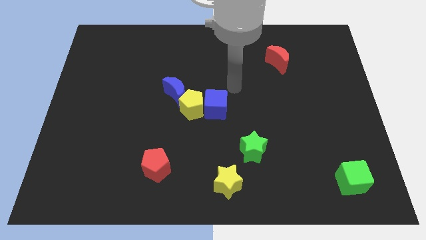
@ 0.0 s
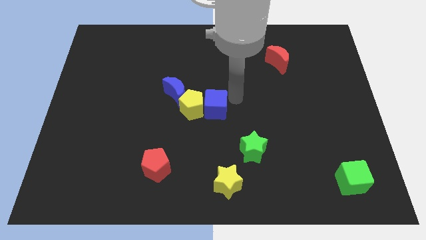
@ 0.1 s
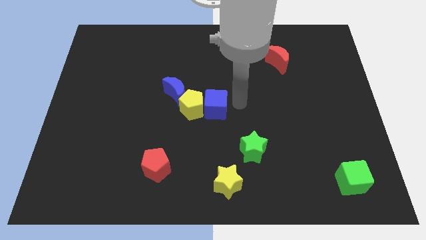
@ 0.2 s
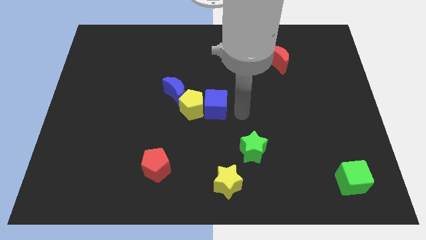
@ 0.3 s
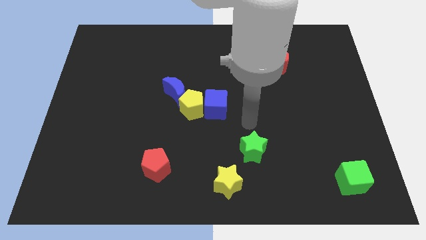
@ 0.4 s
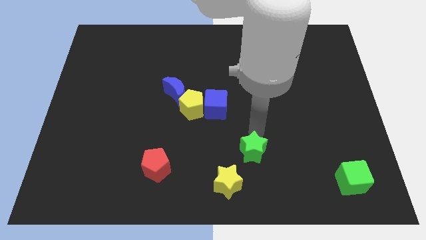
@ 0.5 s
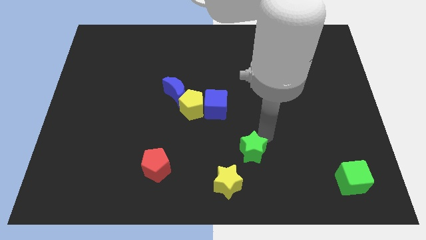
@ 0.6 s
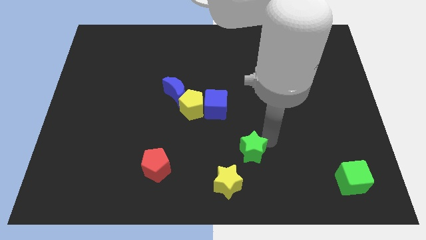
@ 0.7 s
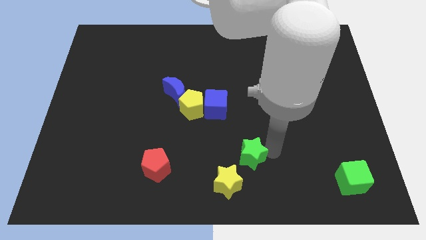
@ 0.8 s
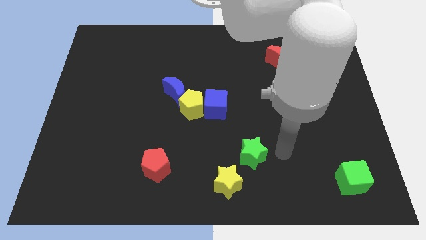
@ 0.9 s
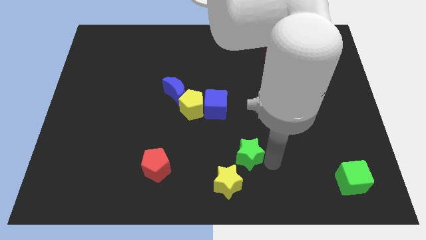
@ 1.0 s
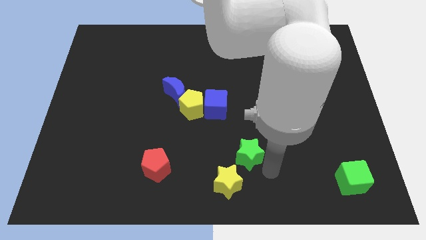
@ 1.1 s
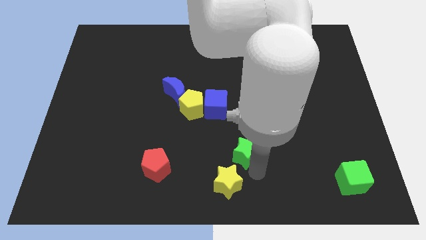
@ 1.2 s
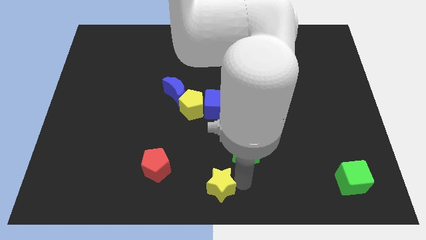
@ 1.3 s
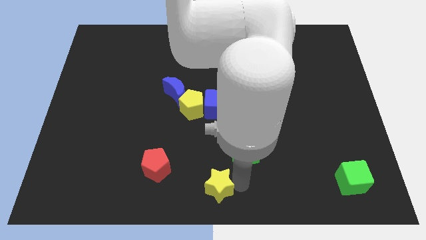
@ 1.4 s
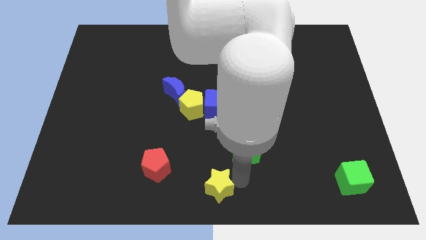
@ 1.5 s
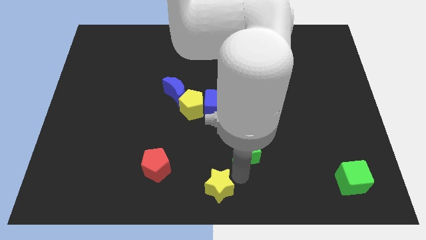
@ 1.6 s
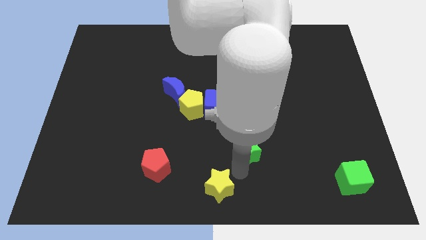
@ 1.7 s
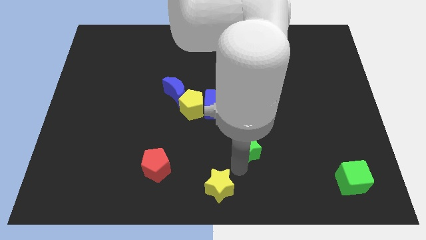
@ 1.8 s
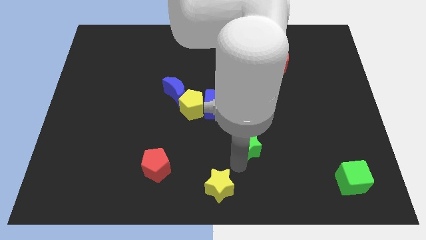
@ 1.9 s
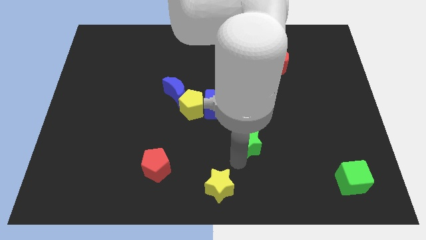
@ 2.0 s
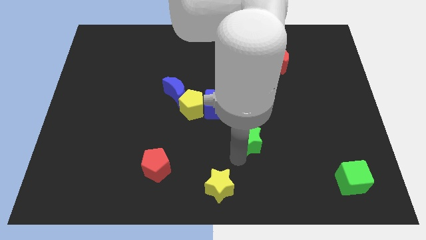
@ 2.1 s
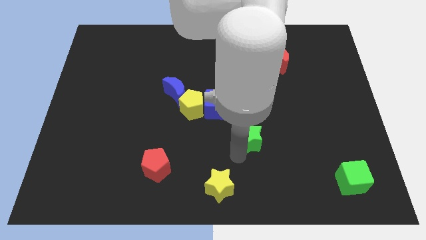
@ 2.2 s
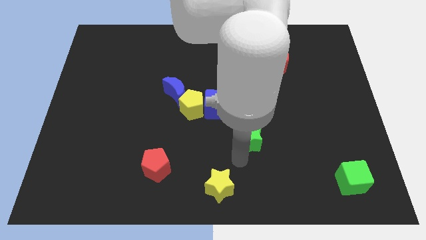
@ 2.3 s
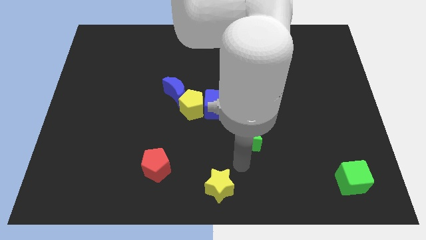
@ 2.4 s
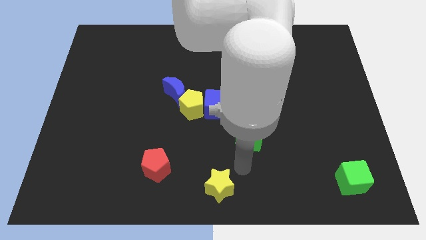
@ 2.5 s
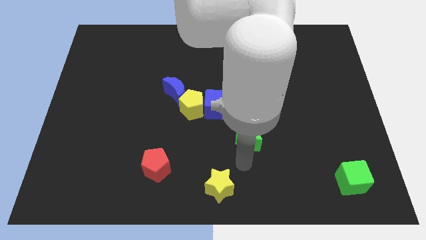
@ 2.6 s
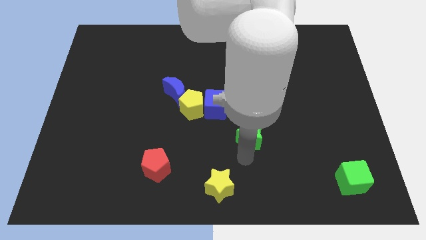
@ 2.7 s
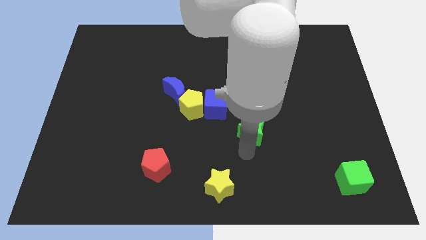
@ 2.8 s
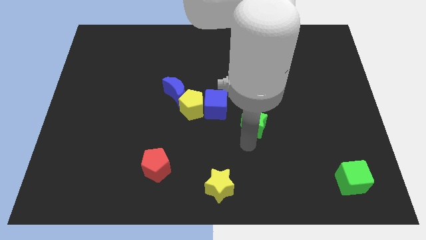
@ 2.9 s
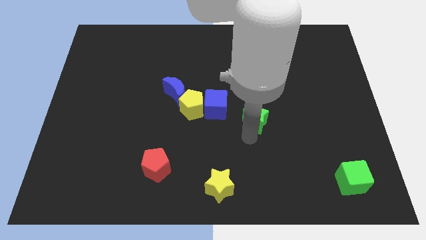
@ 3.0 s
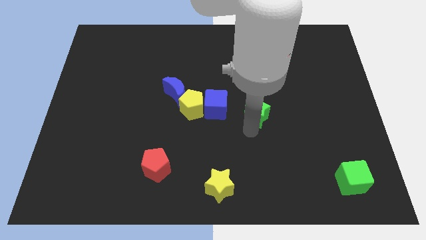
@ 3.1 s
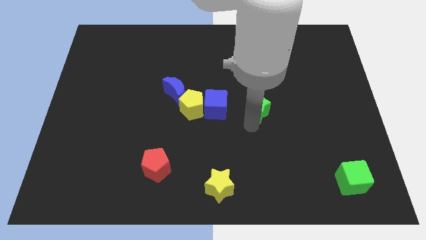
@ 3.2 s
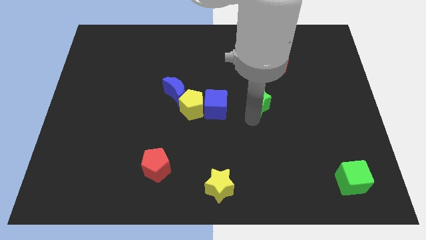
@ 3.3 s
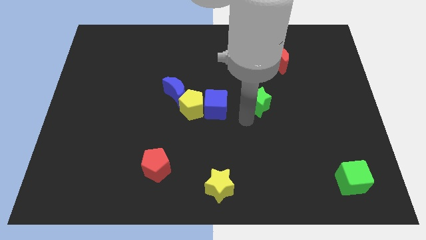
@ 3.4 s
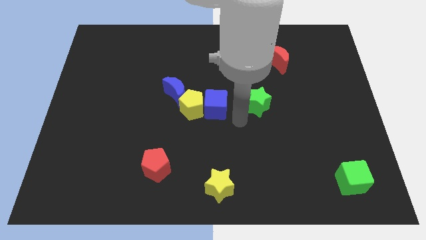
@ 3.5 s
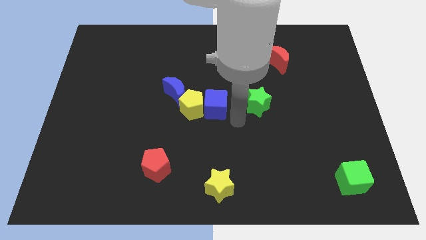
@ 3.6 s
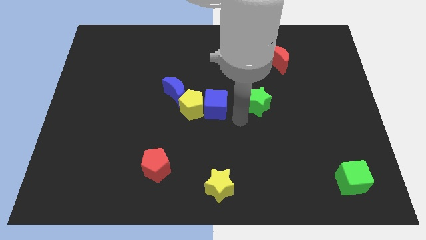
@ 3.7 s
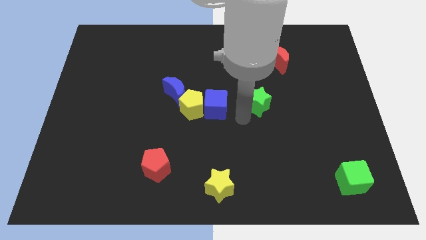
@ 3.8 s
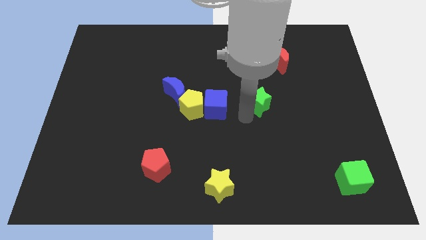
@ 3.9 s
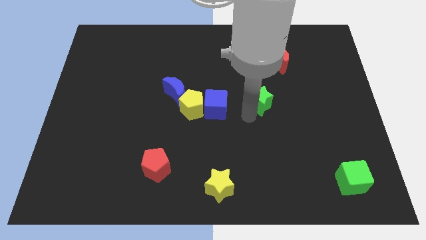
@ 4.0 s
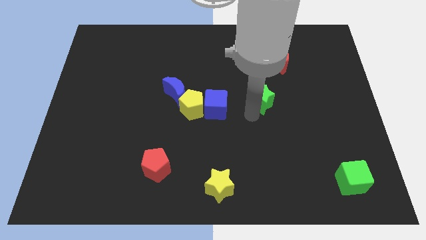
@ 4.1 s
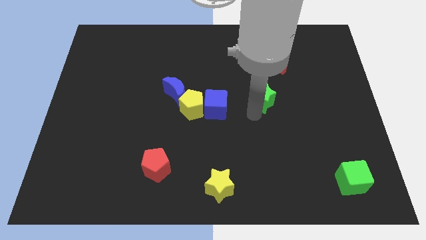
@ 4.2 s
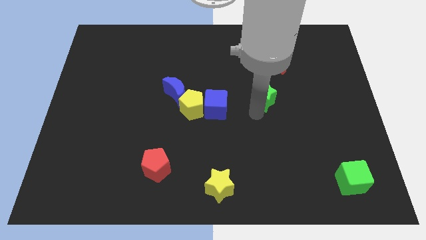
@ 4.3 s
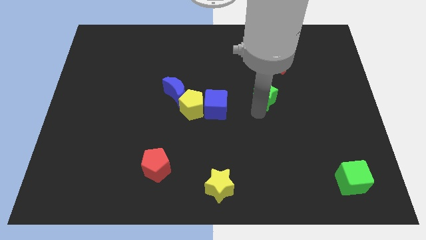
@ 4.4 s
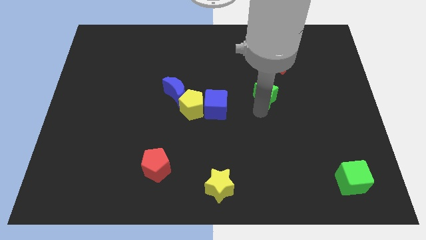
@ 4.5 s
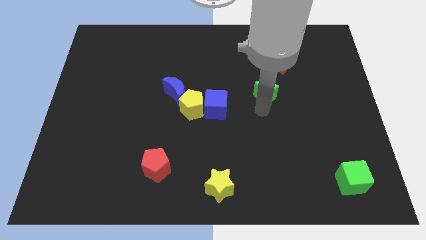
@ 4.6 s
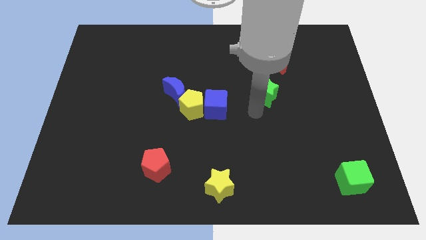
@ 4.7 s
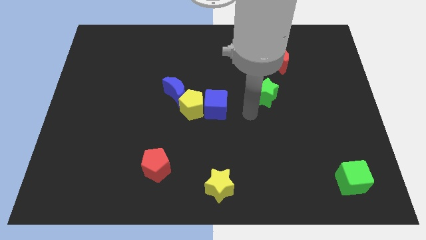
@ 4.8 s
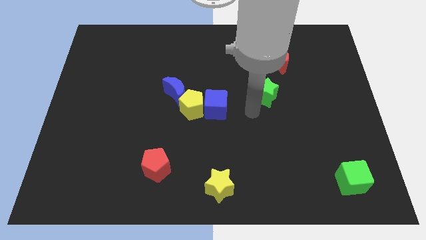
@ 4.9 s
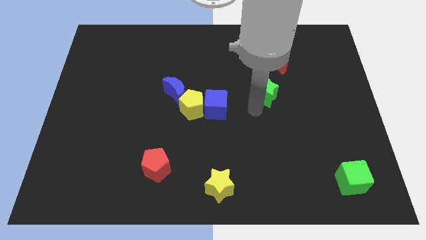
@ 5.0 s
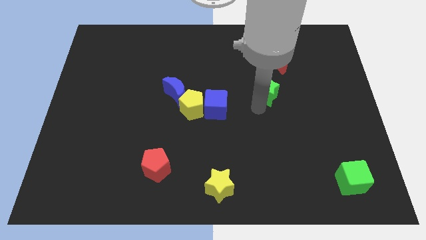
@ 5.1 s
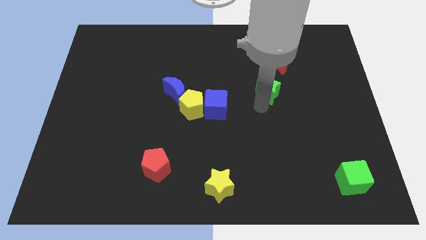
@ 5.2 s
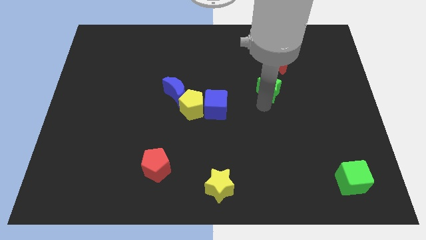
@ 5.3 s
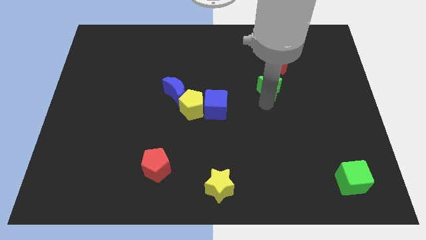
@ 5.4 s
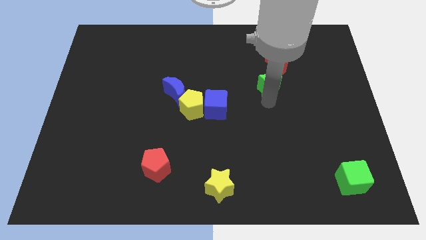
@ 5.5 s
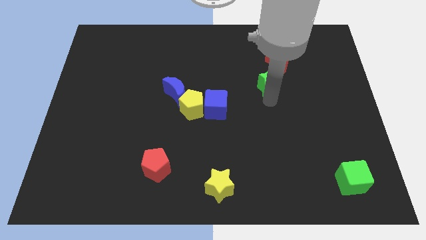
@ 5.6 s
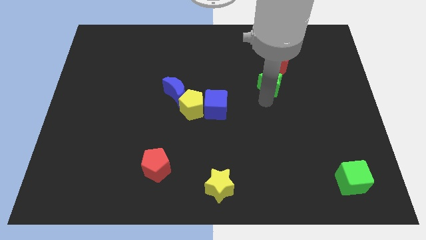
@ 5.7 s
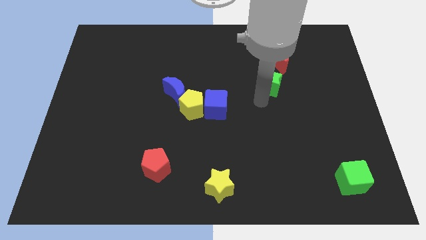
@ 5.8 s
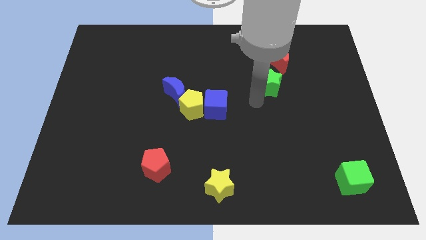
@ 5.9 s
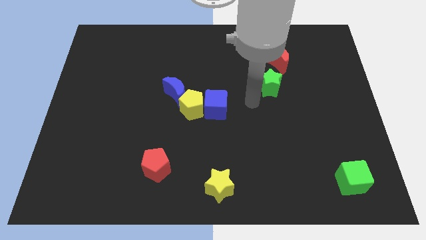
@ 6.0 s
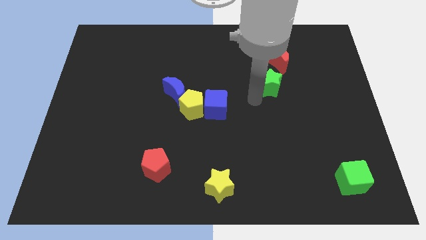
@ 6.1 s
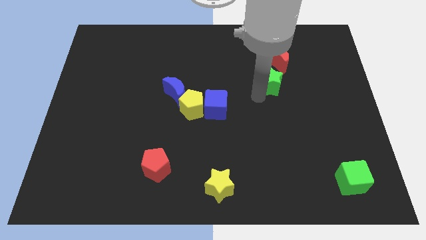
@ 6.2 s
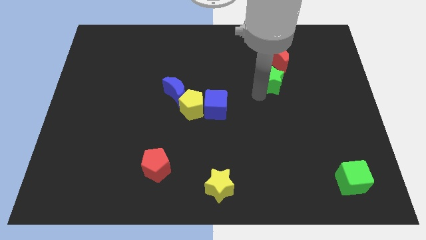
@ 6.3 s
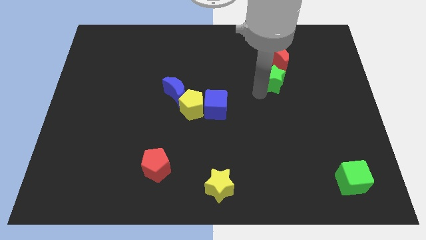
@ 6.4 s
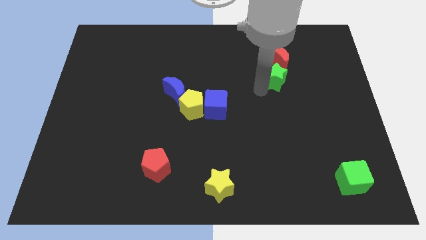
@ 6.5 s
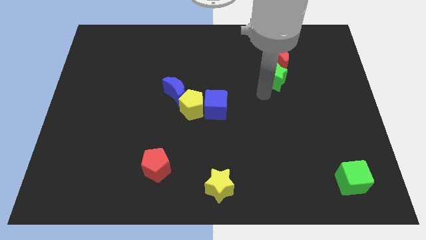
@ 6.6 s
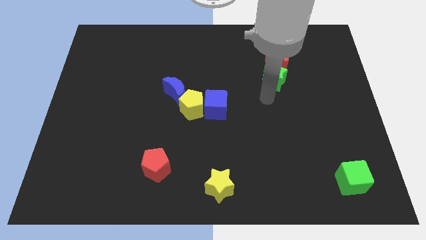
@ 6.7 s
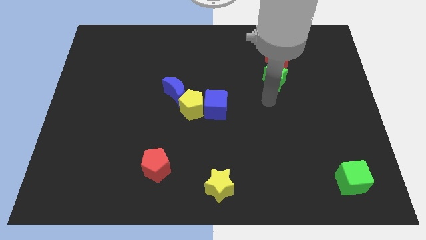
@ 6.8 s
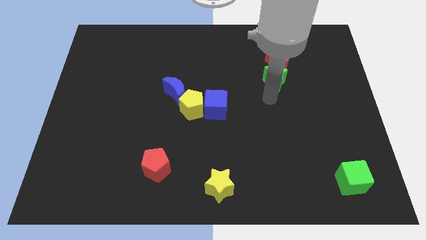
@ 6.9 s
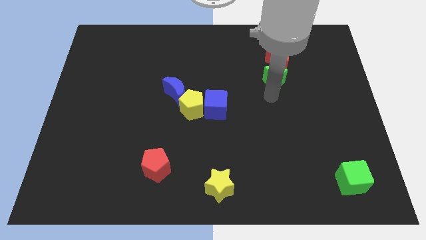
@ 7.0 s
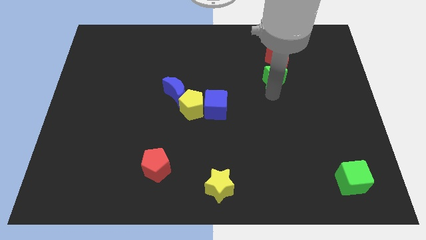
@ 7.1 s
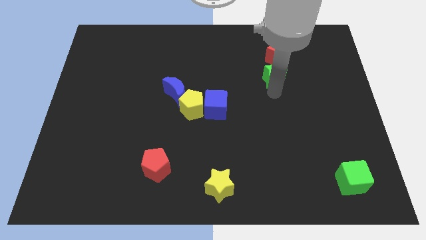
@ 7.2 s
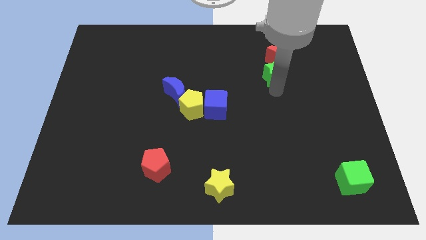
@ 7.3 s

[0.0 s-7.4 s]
move the green star next to the red moon
